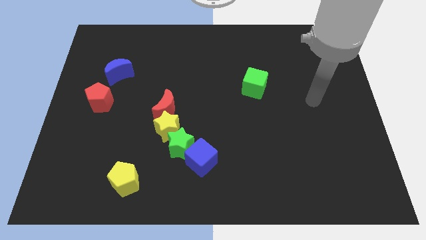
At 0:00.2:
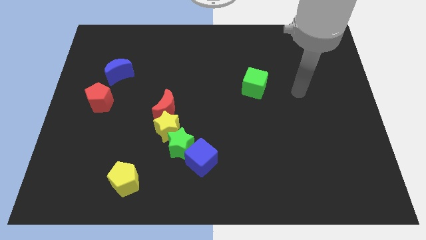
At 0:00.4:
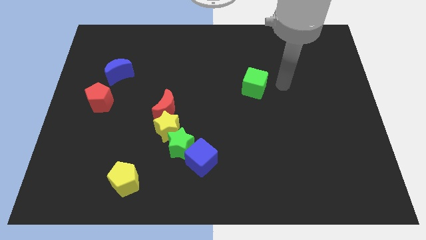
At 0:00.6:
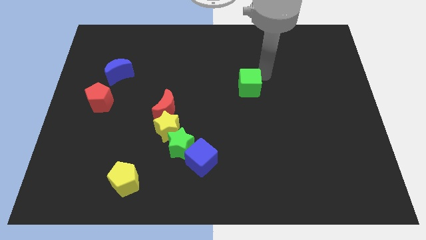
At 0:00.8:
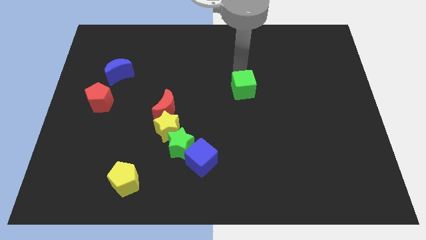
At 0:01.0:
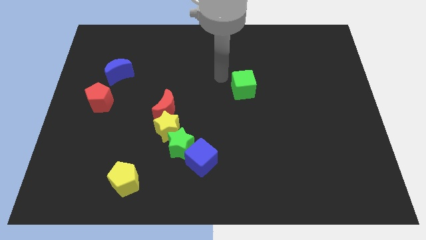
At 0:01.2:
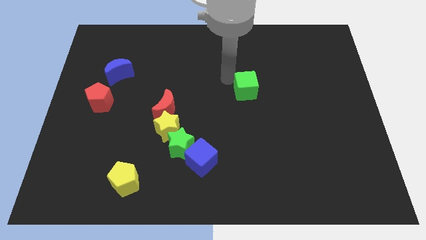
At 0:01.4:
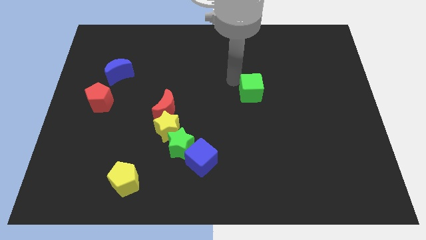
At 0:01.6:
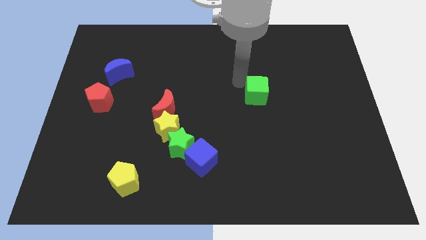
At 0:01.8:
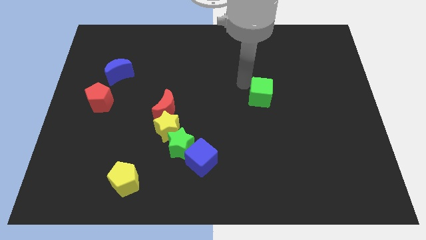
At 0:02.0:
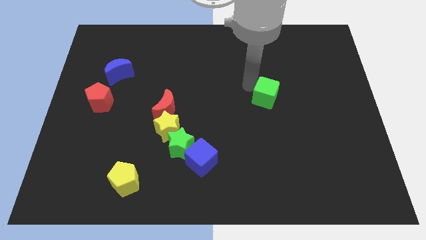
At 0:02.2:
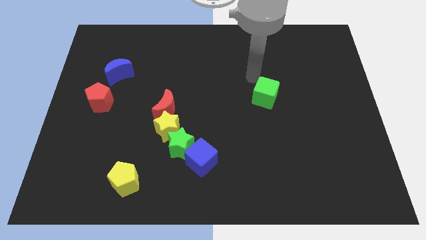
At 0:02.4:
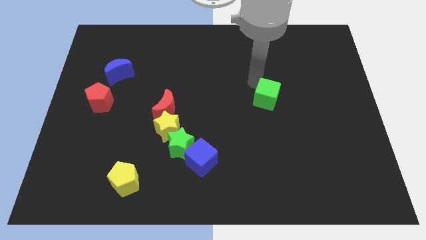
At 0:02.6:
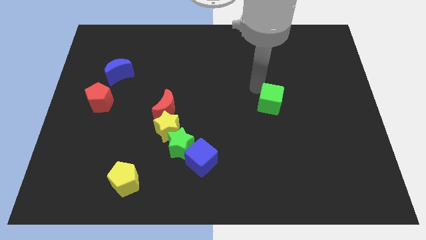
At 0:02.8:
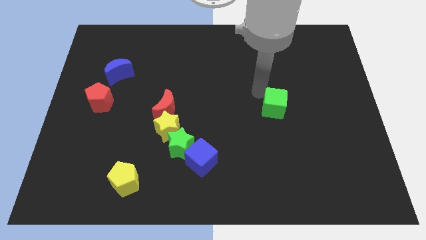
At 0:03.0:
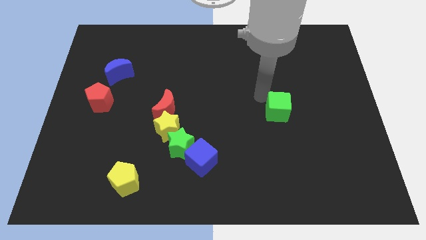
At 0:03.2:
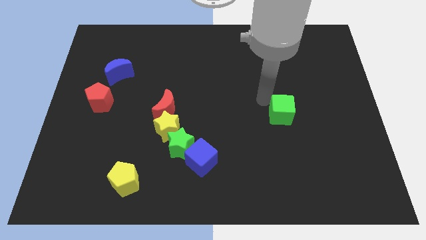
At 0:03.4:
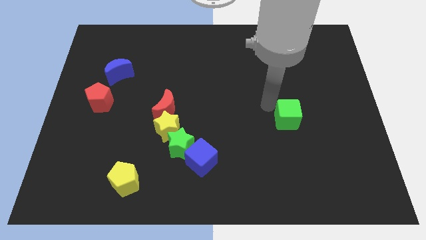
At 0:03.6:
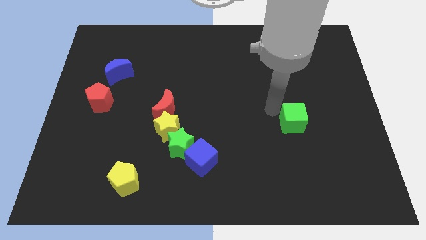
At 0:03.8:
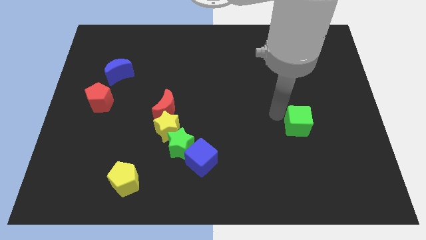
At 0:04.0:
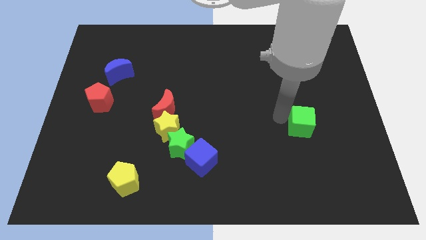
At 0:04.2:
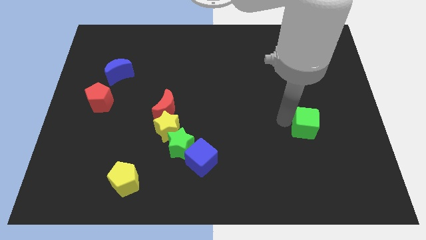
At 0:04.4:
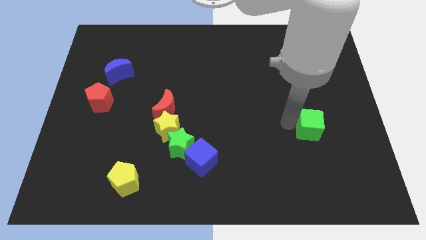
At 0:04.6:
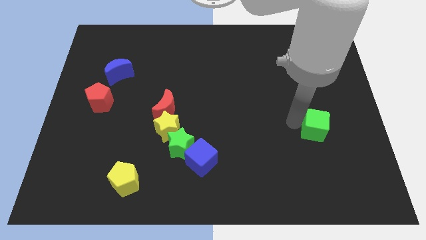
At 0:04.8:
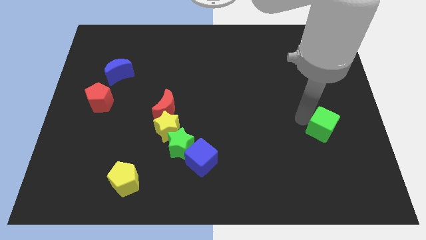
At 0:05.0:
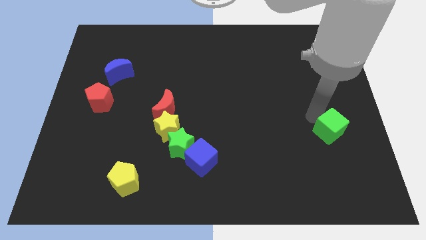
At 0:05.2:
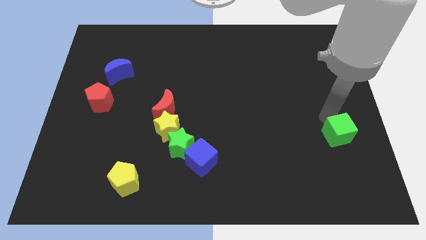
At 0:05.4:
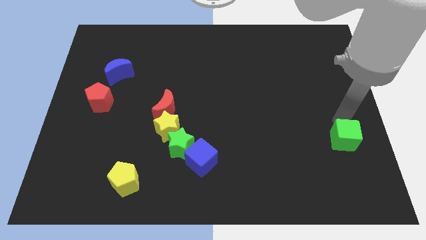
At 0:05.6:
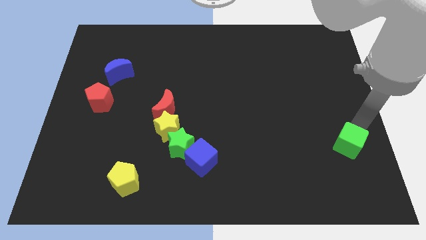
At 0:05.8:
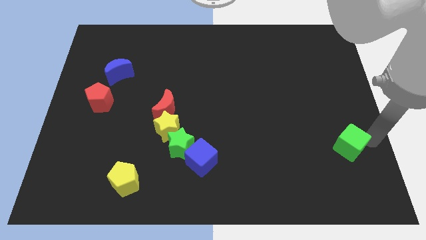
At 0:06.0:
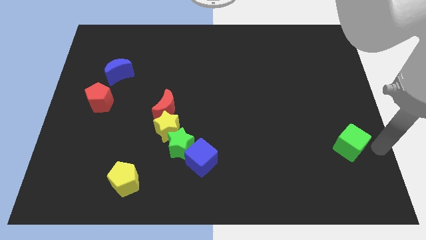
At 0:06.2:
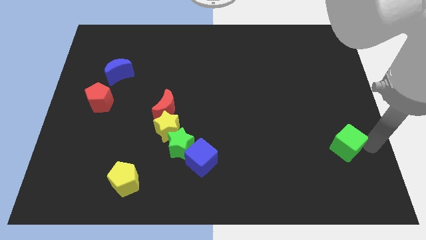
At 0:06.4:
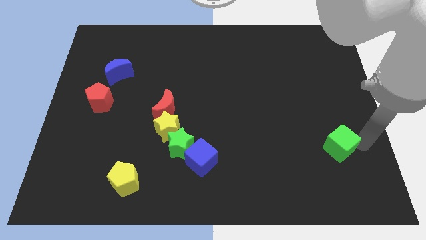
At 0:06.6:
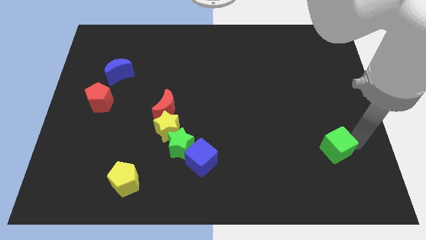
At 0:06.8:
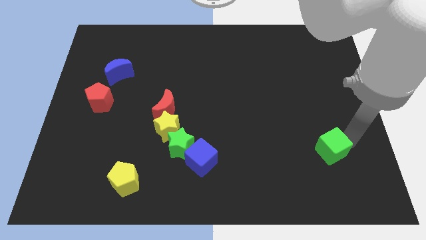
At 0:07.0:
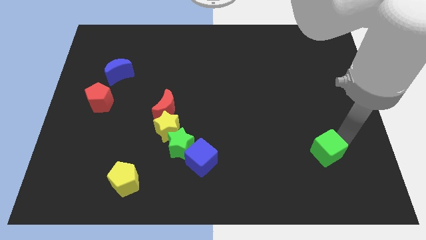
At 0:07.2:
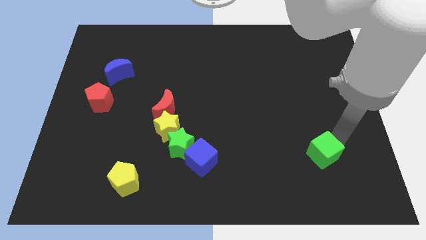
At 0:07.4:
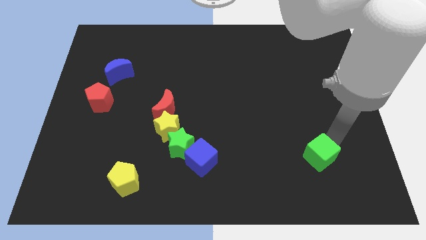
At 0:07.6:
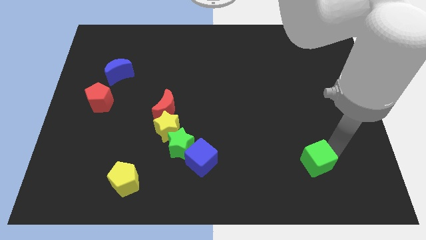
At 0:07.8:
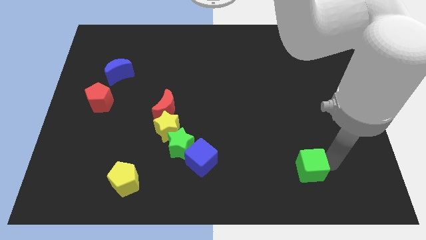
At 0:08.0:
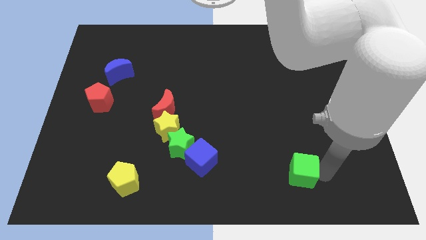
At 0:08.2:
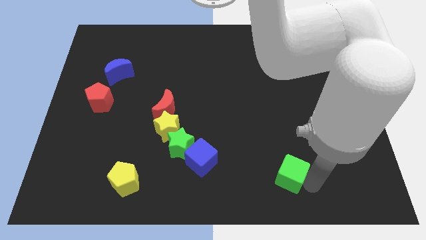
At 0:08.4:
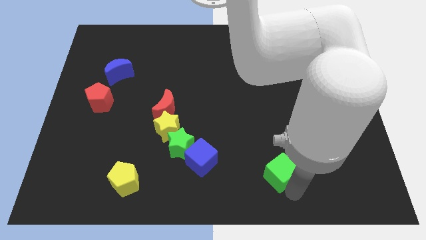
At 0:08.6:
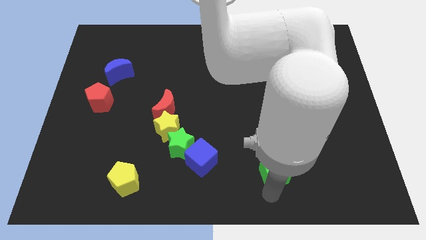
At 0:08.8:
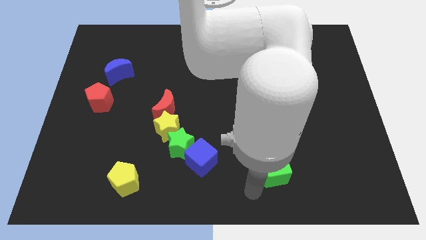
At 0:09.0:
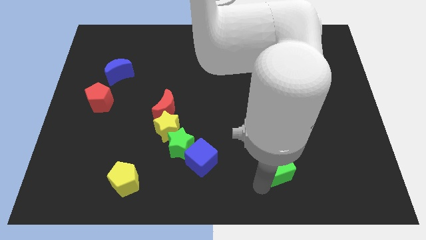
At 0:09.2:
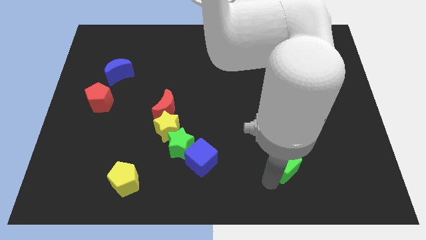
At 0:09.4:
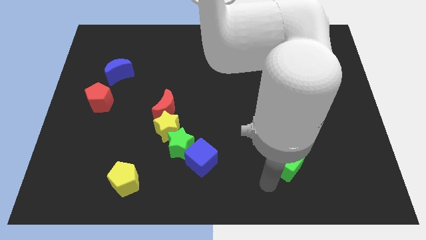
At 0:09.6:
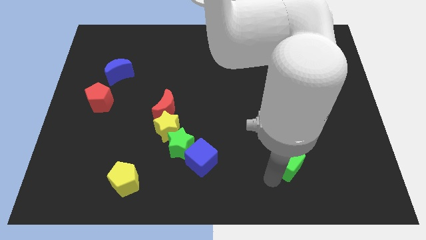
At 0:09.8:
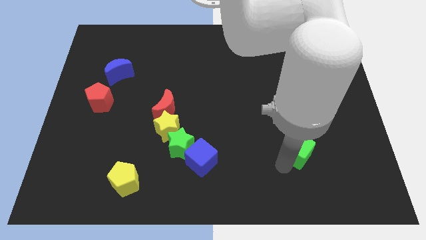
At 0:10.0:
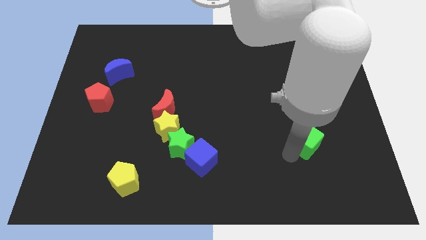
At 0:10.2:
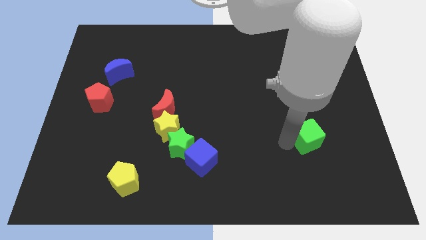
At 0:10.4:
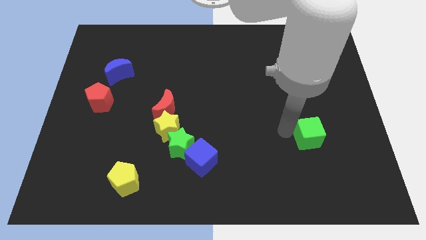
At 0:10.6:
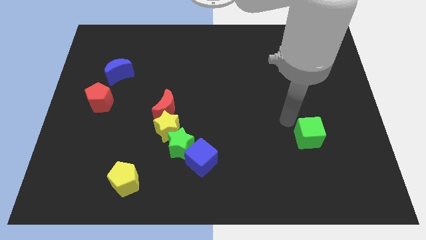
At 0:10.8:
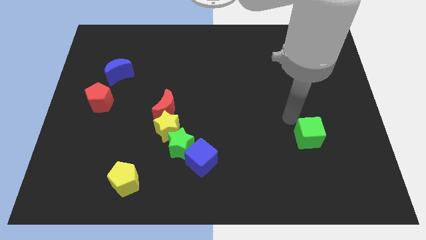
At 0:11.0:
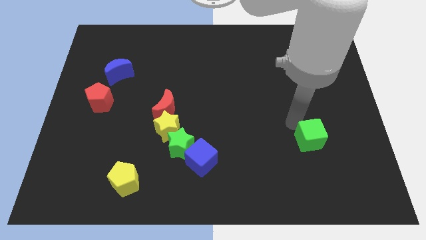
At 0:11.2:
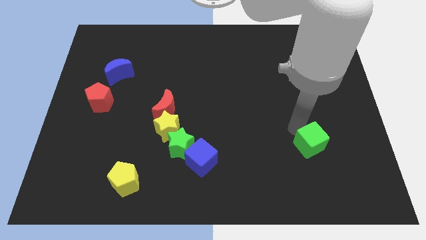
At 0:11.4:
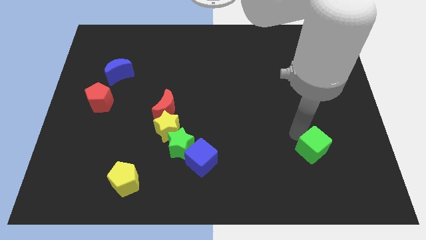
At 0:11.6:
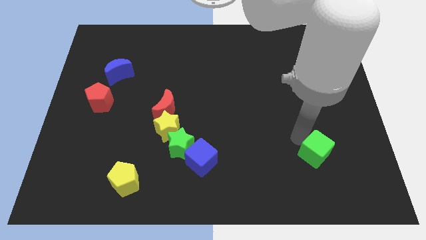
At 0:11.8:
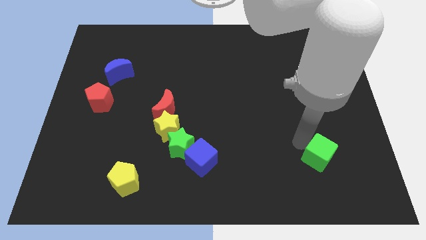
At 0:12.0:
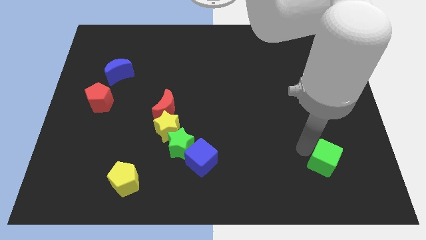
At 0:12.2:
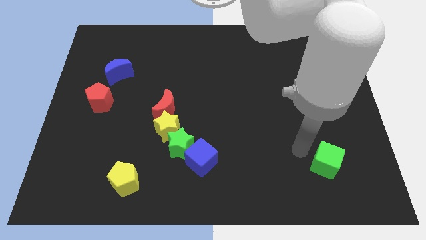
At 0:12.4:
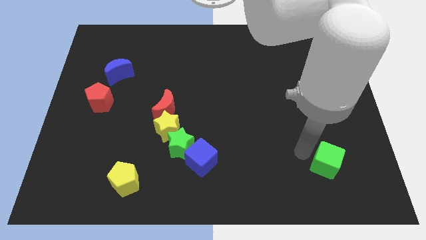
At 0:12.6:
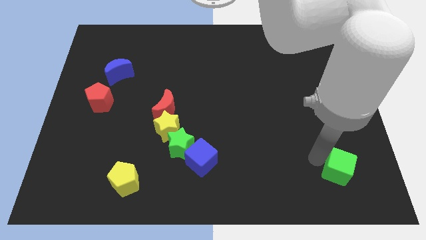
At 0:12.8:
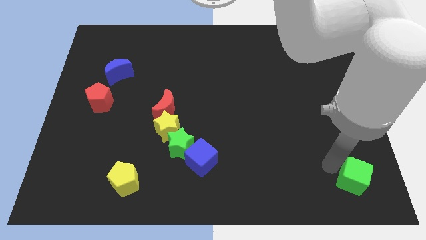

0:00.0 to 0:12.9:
put the green cube to the bottom right of the board

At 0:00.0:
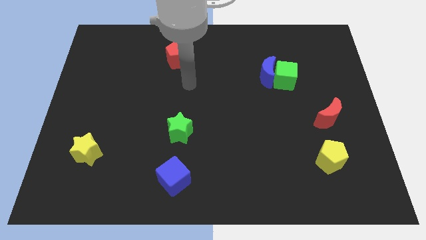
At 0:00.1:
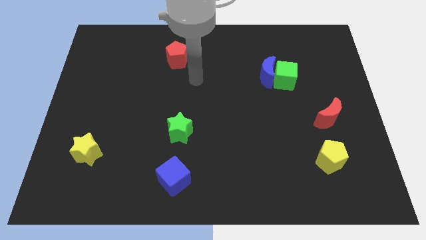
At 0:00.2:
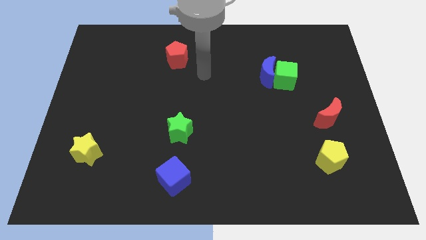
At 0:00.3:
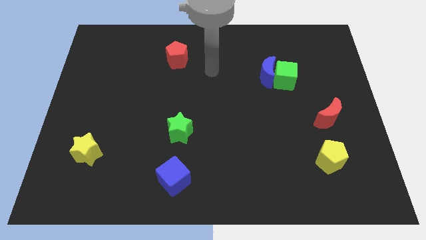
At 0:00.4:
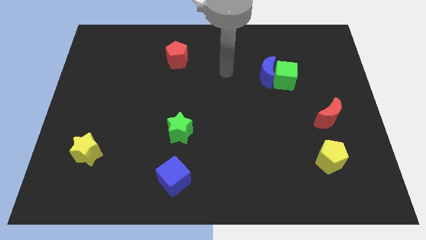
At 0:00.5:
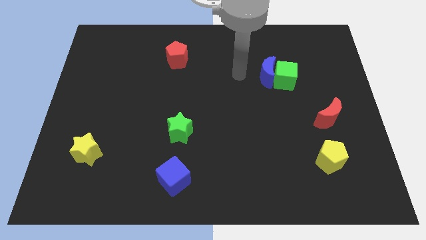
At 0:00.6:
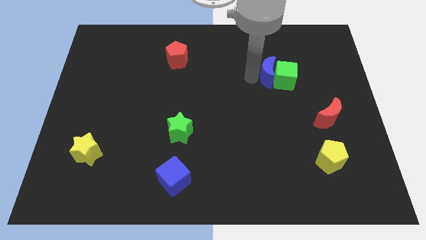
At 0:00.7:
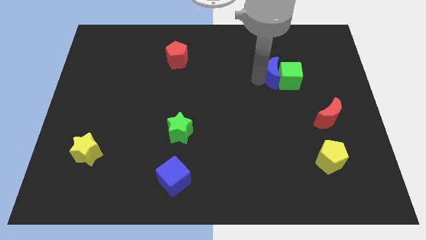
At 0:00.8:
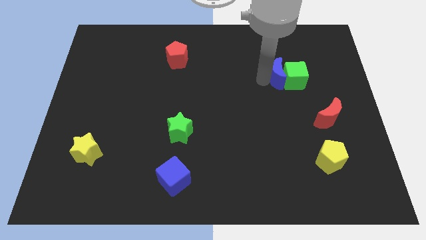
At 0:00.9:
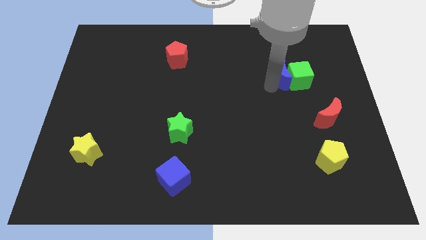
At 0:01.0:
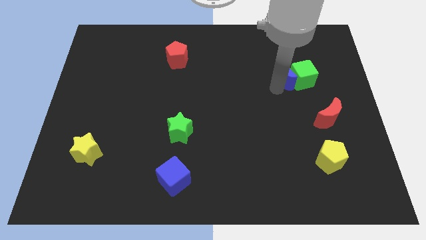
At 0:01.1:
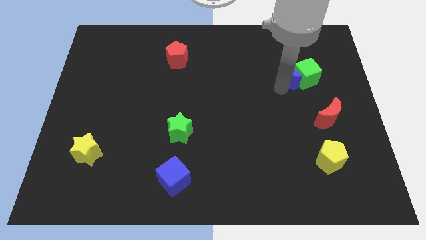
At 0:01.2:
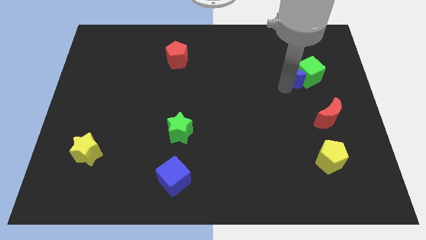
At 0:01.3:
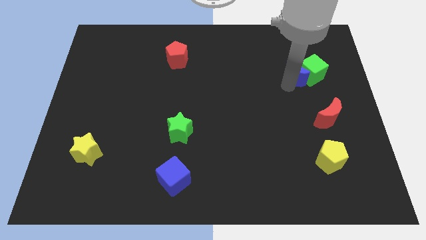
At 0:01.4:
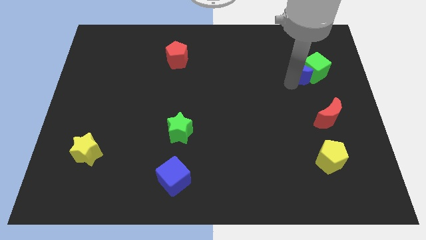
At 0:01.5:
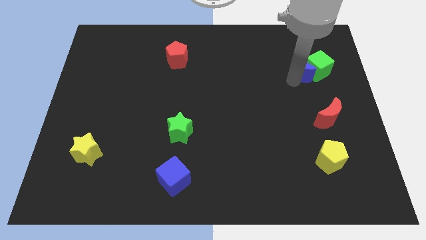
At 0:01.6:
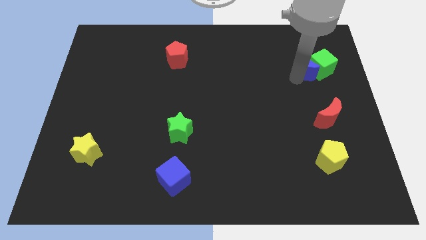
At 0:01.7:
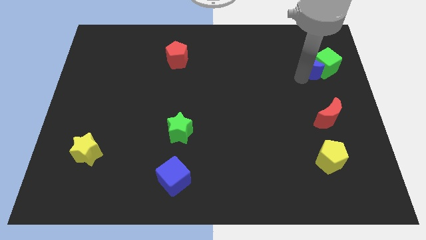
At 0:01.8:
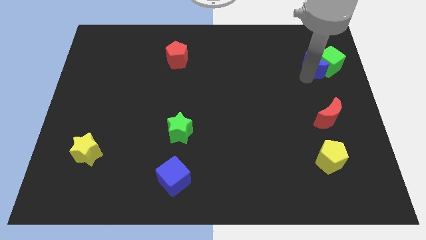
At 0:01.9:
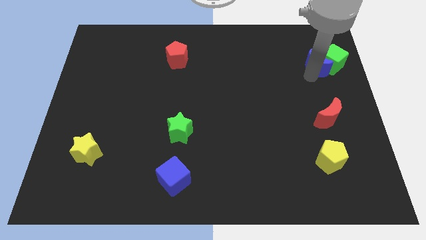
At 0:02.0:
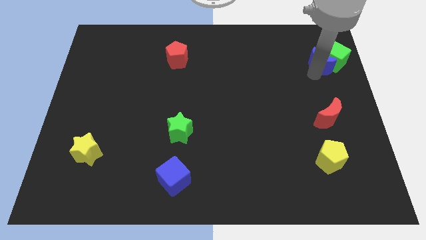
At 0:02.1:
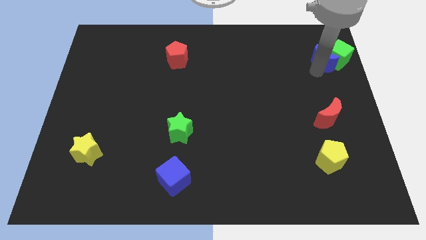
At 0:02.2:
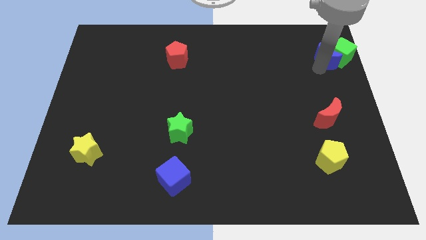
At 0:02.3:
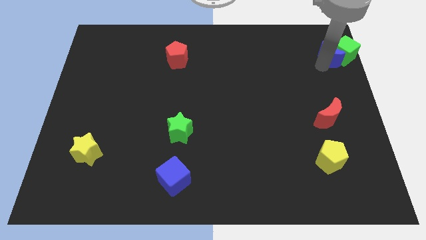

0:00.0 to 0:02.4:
move the green cube to the top right corner
